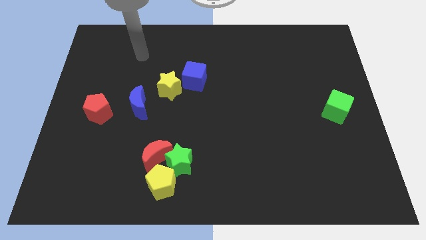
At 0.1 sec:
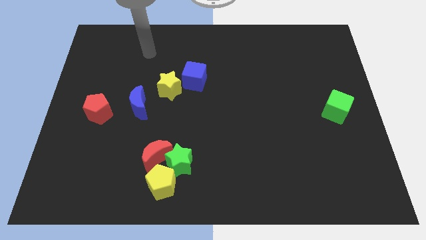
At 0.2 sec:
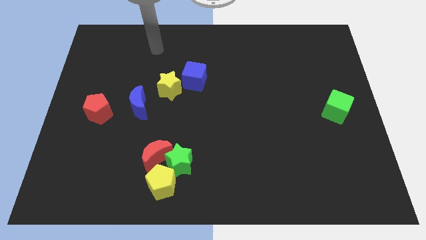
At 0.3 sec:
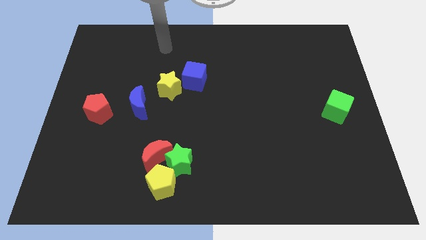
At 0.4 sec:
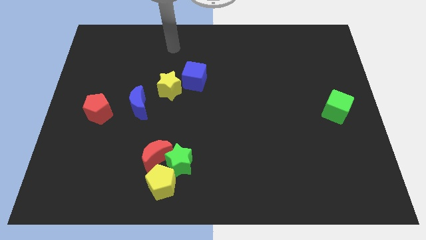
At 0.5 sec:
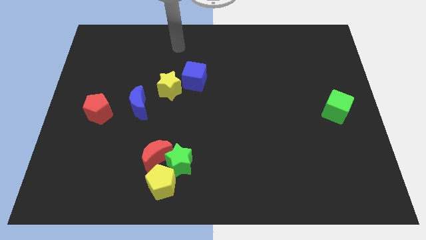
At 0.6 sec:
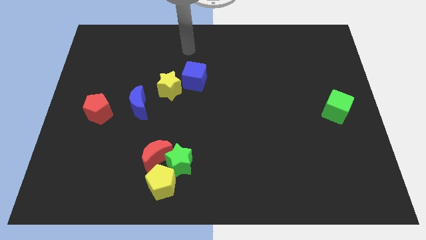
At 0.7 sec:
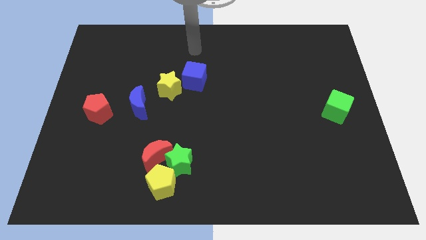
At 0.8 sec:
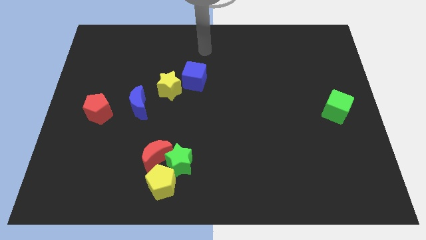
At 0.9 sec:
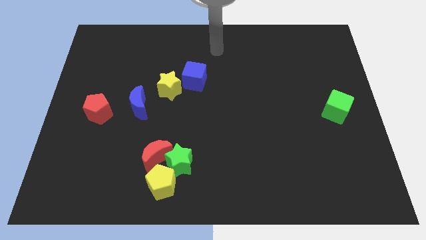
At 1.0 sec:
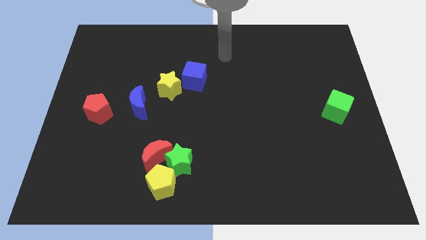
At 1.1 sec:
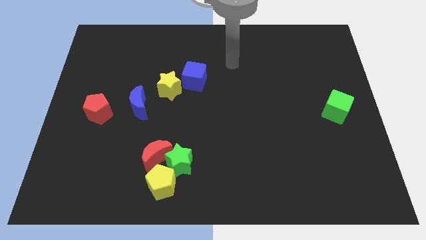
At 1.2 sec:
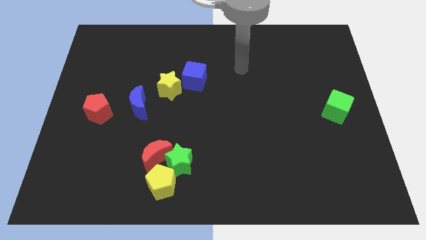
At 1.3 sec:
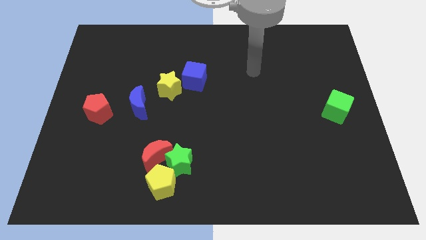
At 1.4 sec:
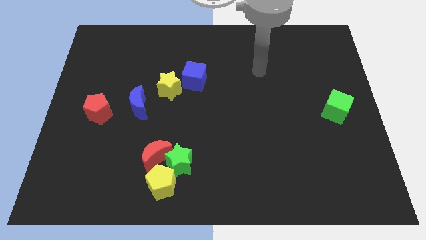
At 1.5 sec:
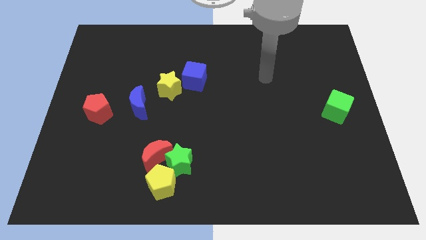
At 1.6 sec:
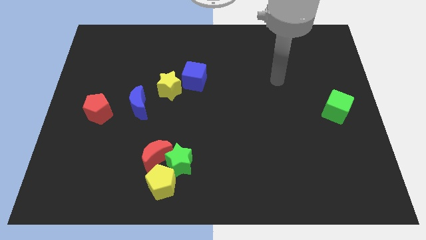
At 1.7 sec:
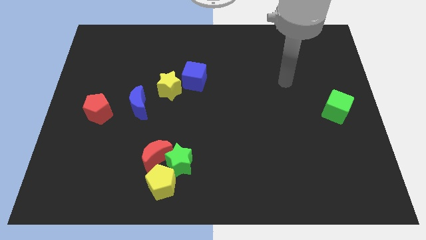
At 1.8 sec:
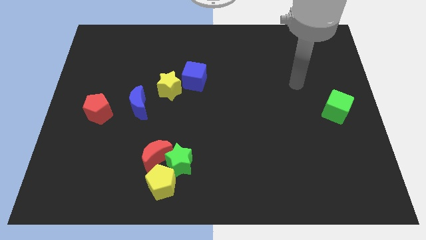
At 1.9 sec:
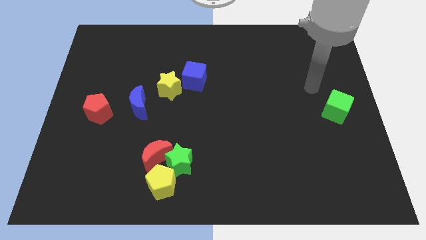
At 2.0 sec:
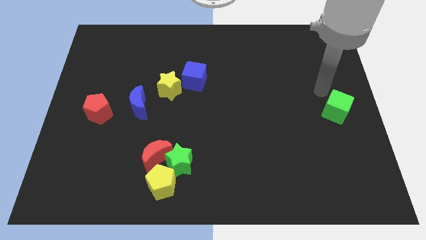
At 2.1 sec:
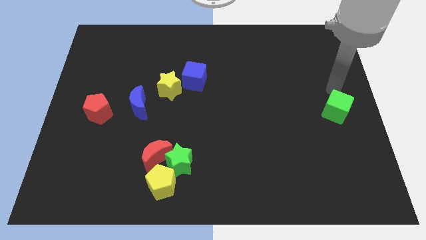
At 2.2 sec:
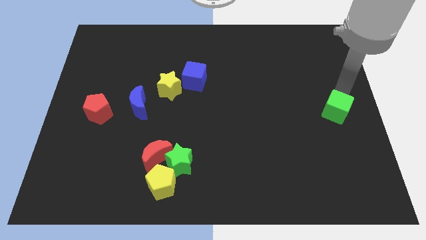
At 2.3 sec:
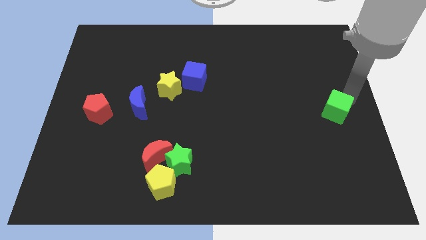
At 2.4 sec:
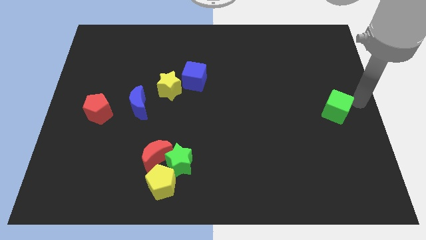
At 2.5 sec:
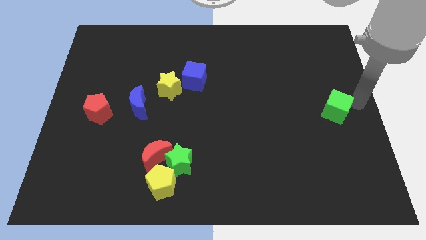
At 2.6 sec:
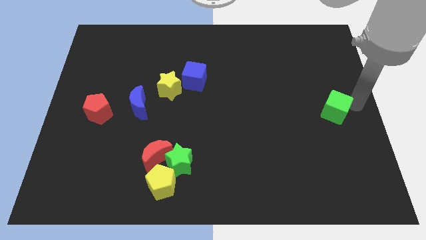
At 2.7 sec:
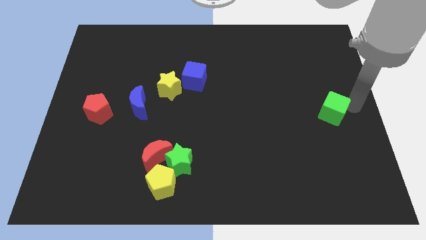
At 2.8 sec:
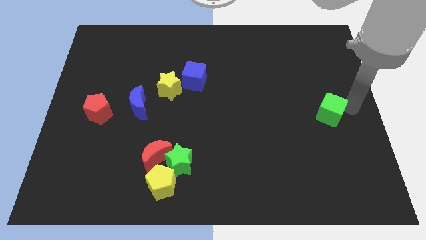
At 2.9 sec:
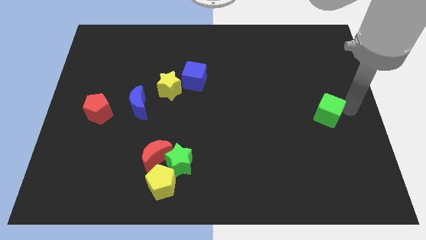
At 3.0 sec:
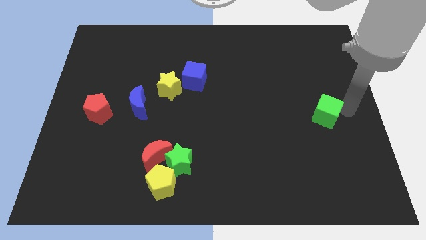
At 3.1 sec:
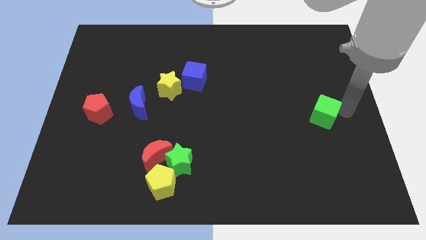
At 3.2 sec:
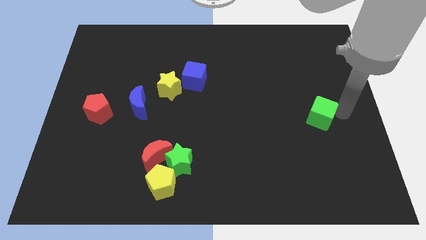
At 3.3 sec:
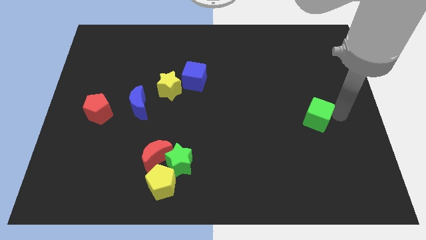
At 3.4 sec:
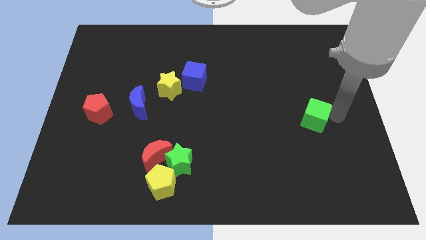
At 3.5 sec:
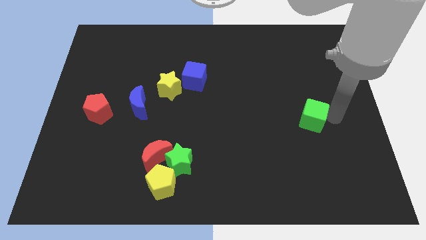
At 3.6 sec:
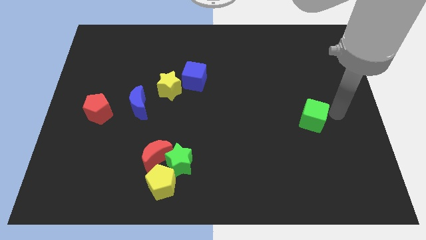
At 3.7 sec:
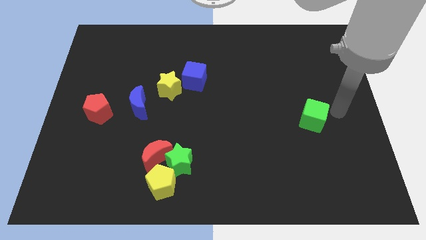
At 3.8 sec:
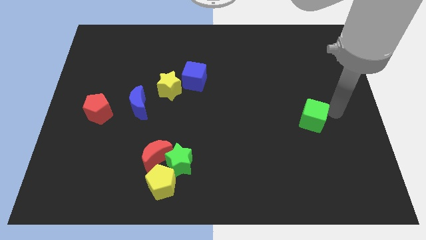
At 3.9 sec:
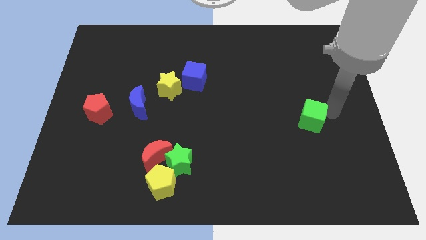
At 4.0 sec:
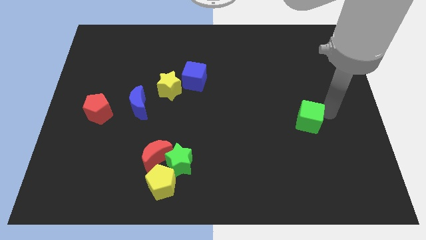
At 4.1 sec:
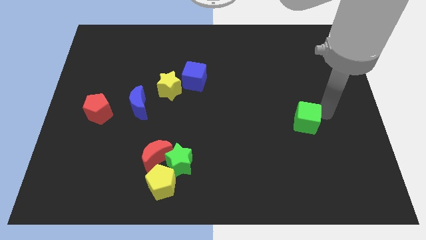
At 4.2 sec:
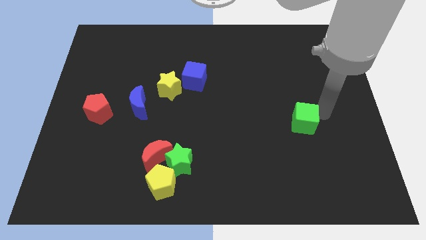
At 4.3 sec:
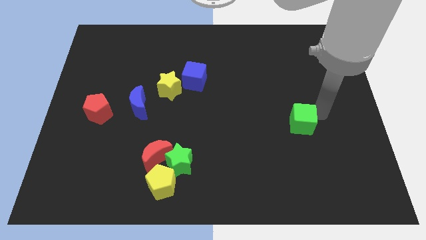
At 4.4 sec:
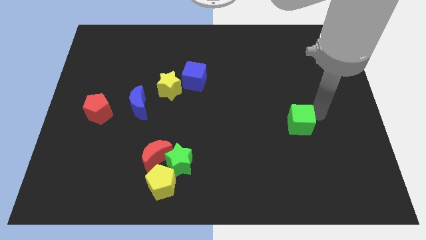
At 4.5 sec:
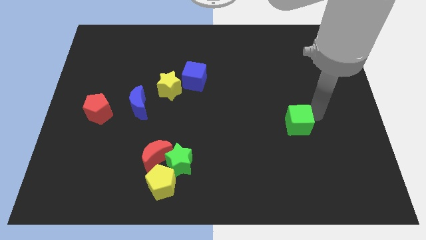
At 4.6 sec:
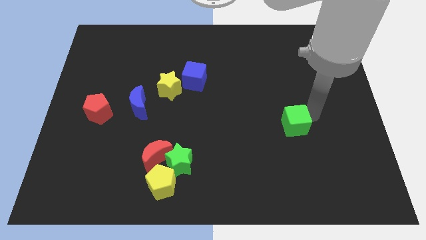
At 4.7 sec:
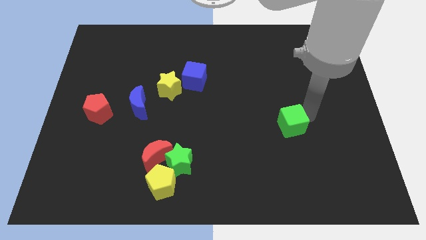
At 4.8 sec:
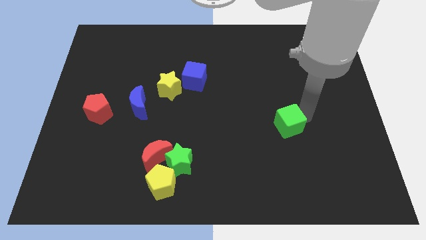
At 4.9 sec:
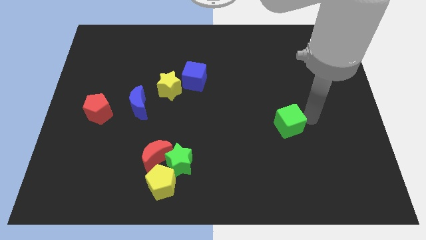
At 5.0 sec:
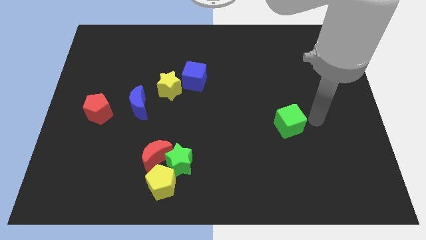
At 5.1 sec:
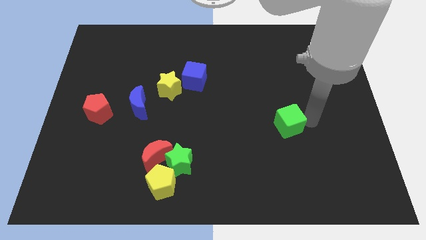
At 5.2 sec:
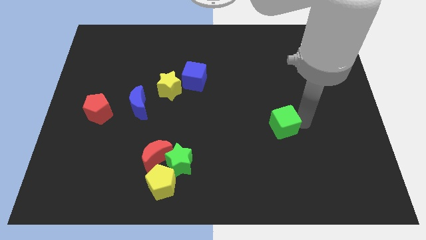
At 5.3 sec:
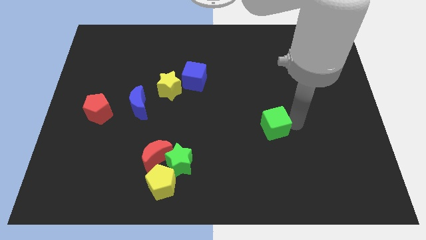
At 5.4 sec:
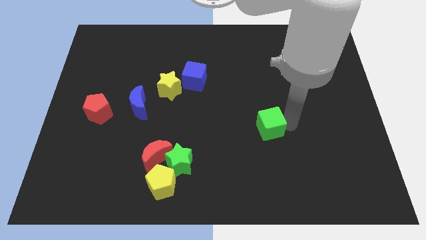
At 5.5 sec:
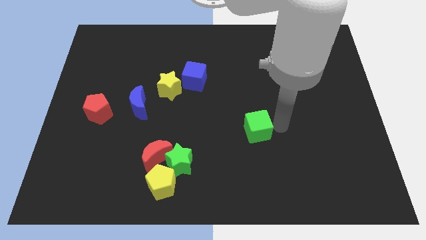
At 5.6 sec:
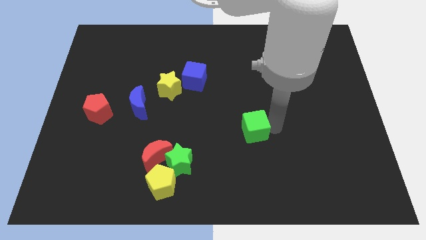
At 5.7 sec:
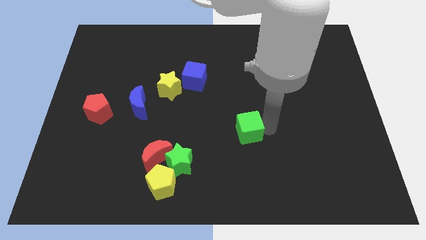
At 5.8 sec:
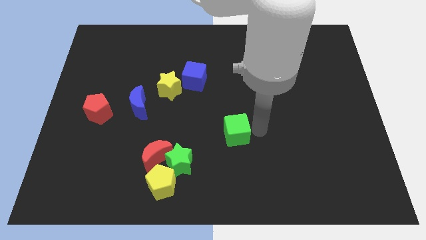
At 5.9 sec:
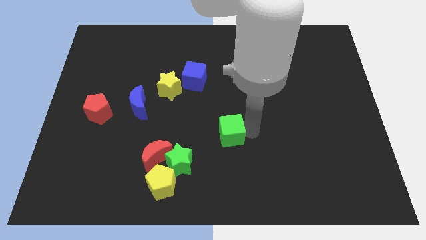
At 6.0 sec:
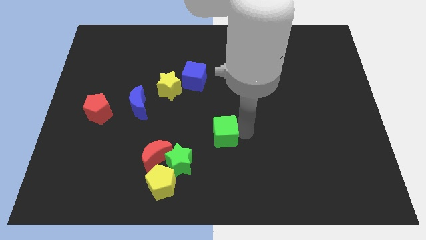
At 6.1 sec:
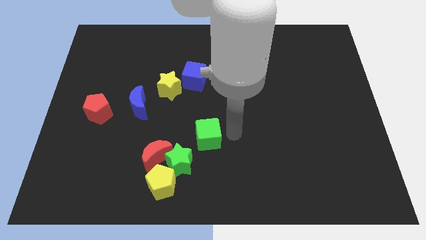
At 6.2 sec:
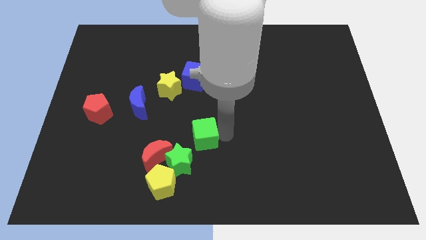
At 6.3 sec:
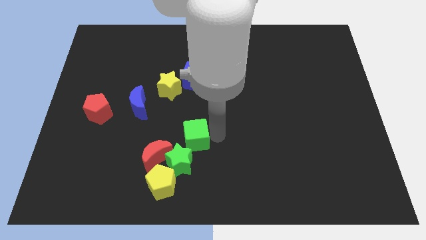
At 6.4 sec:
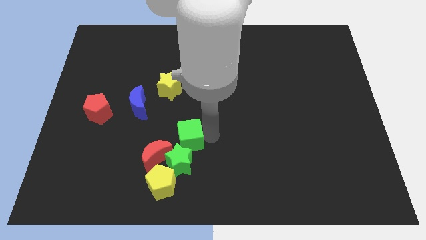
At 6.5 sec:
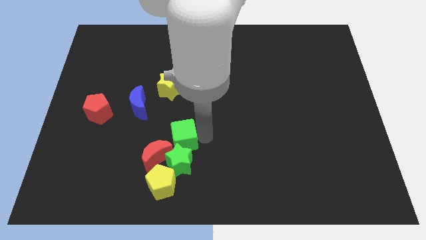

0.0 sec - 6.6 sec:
slide the green cube to the top left side of the green star
